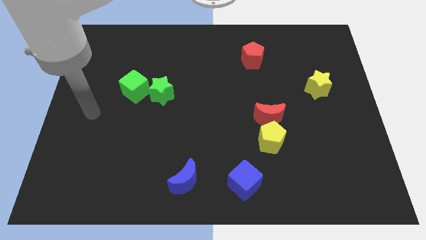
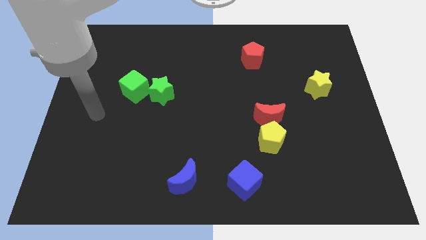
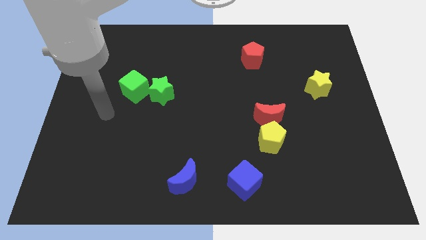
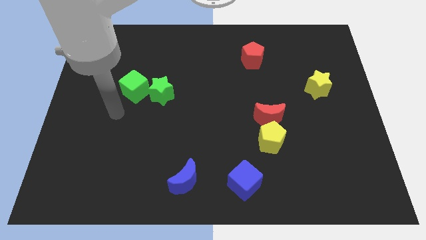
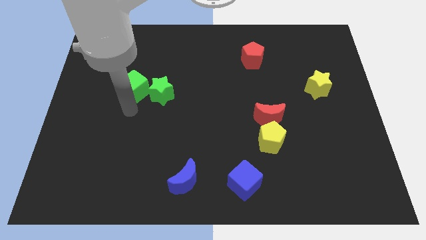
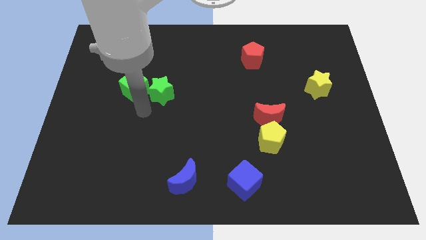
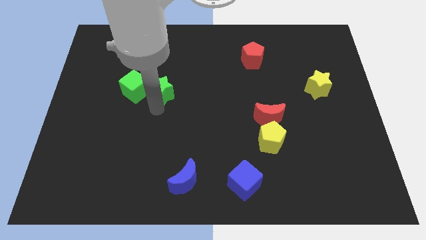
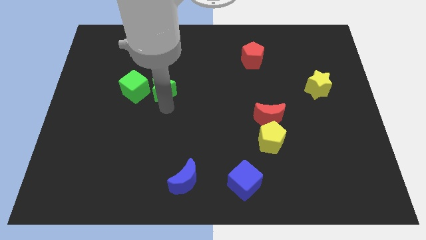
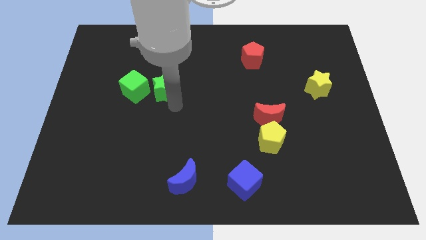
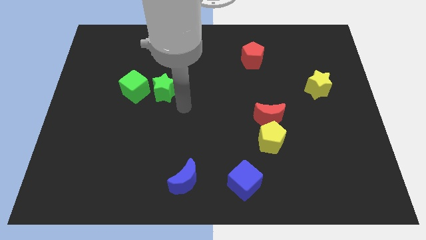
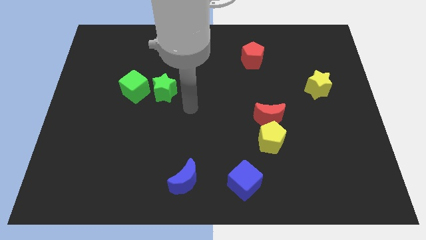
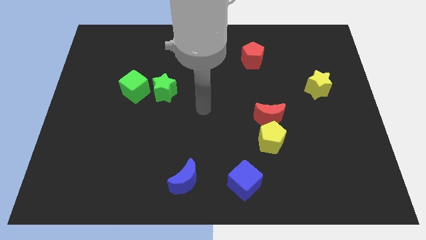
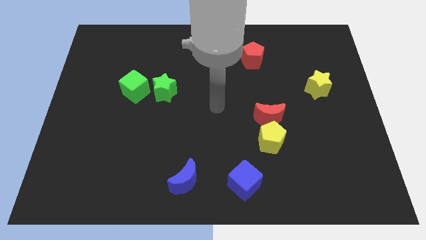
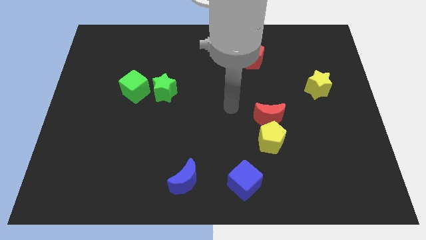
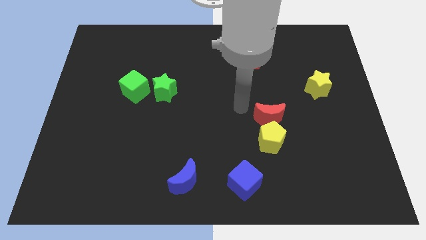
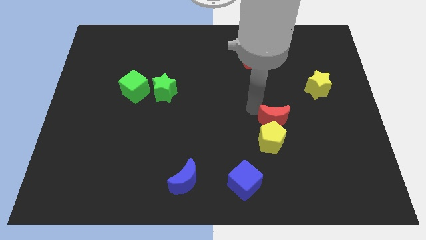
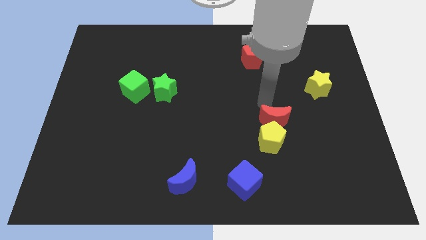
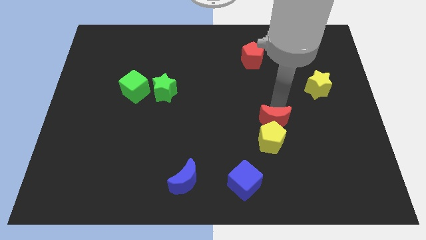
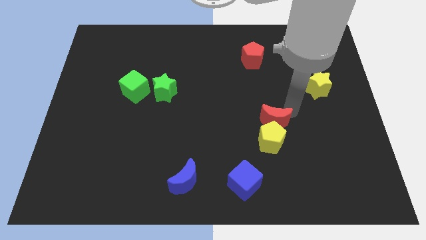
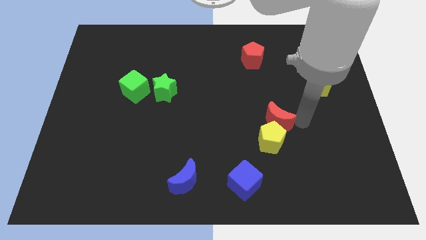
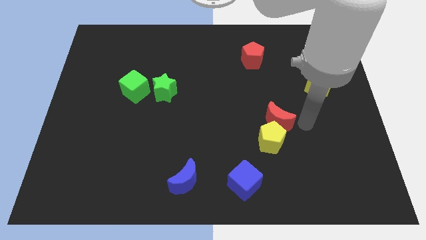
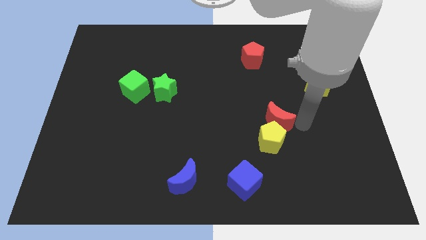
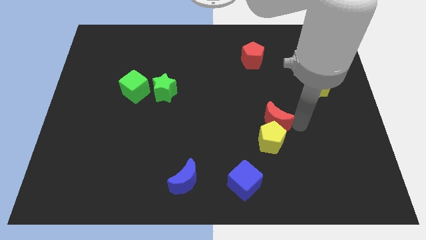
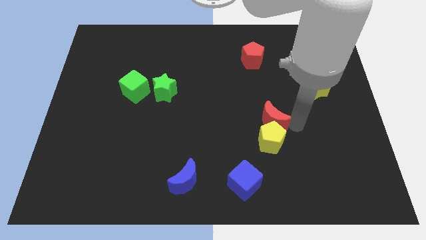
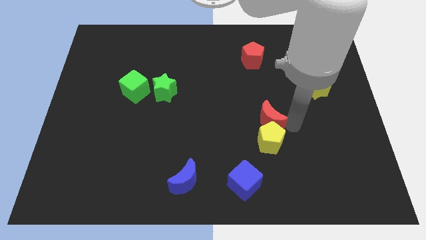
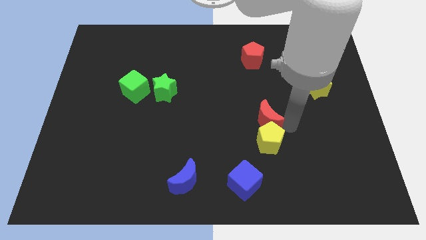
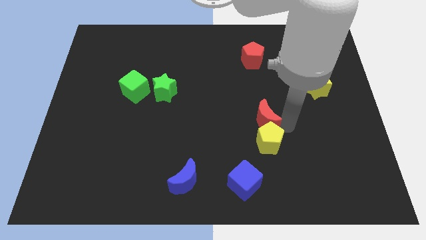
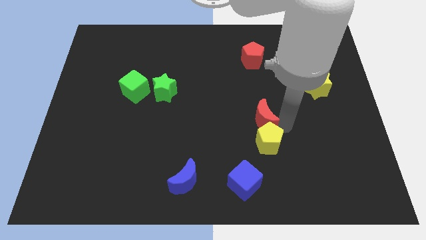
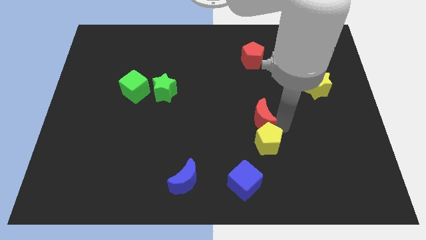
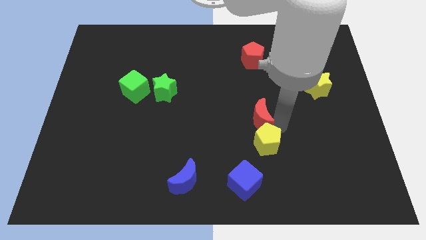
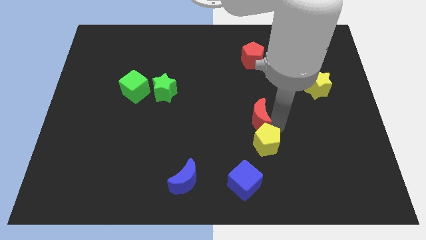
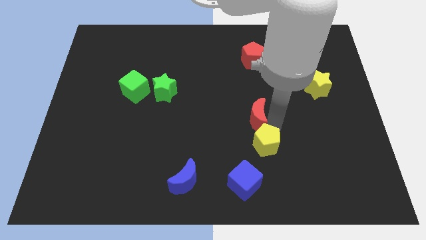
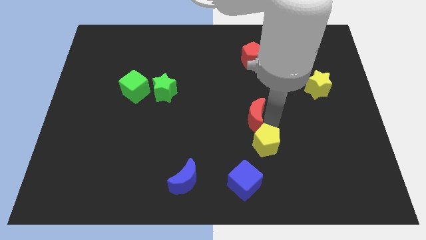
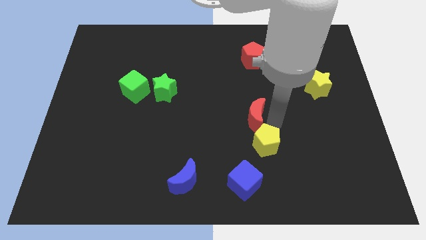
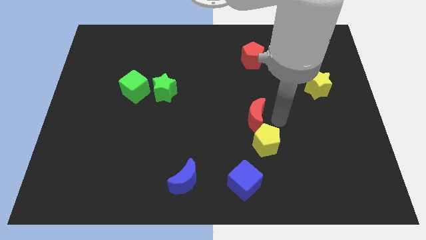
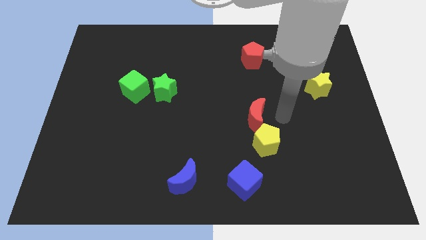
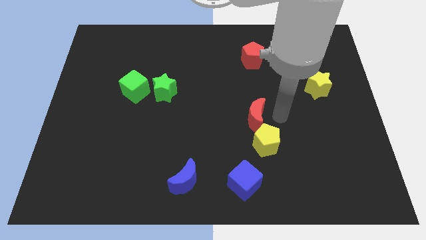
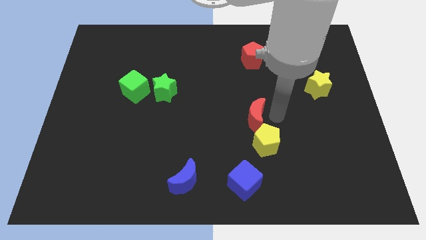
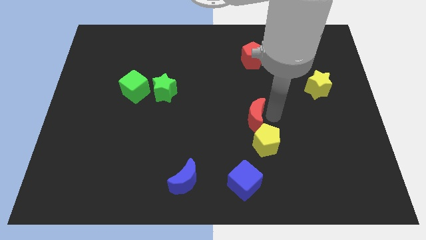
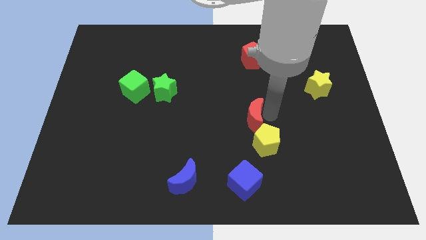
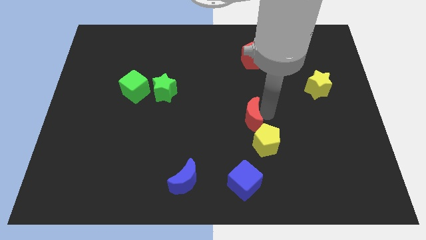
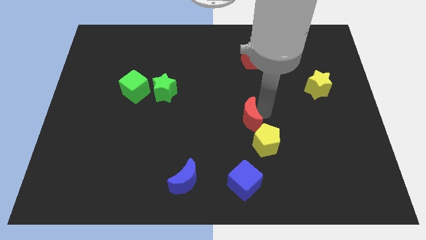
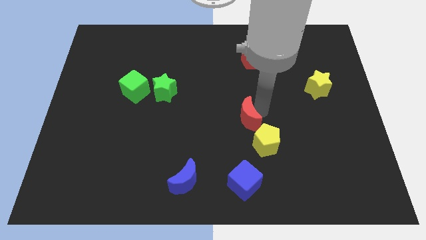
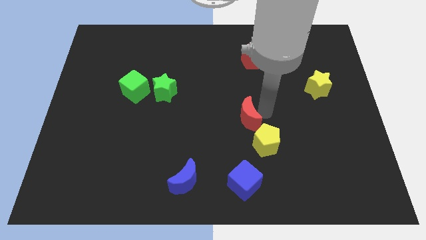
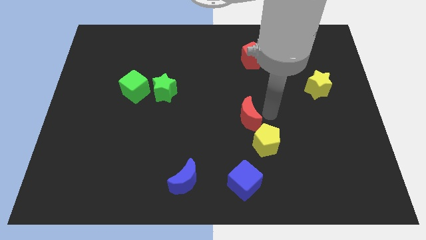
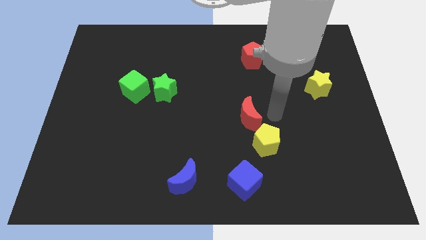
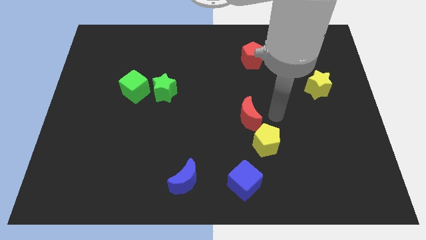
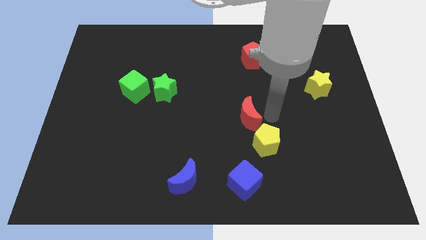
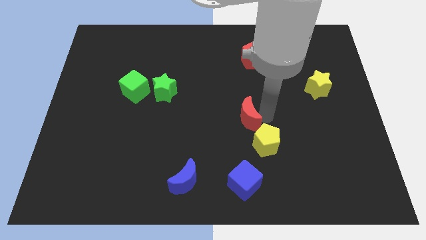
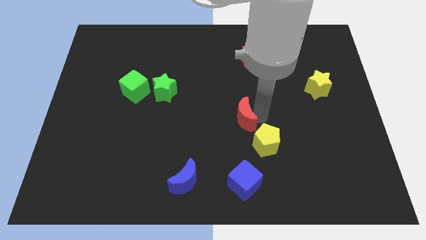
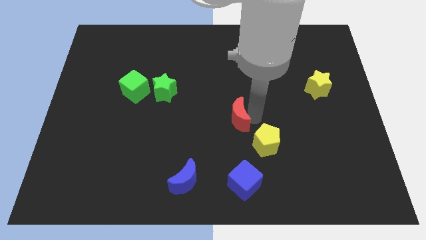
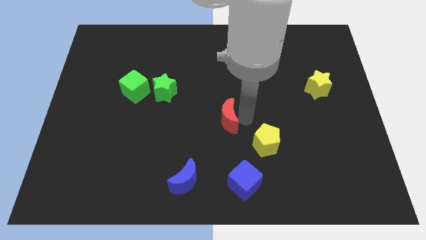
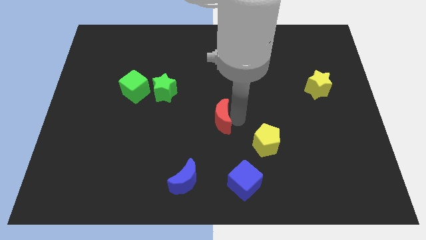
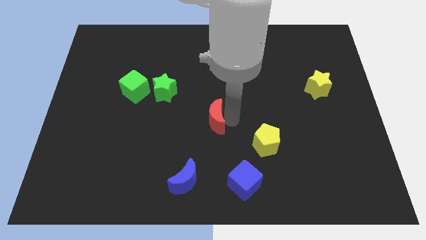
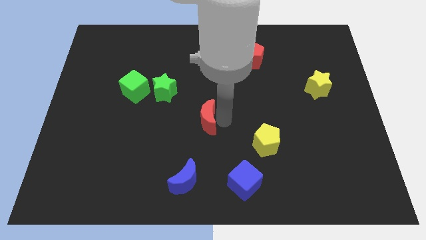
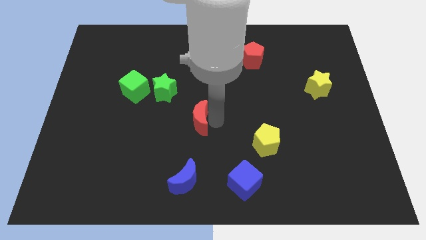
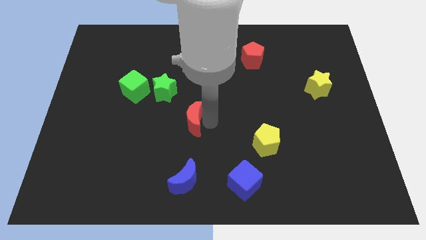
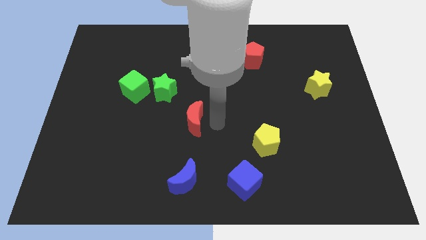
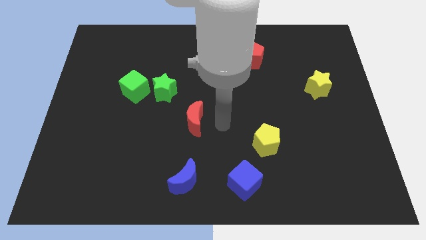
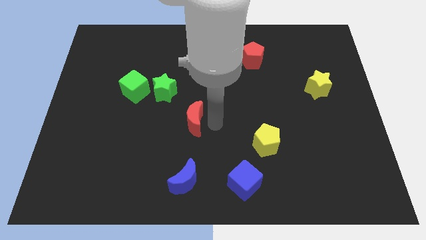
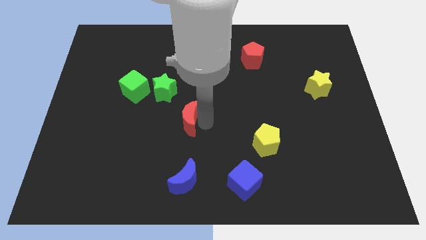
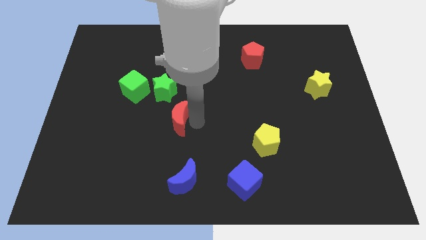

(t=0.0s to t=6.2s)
slide the red moon to the left

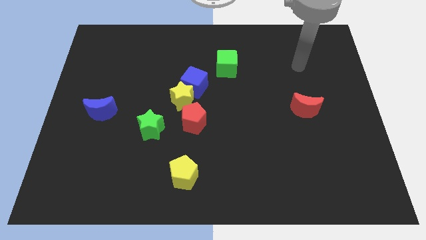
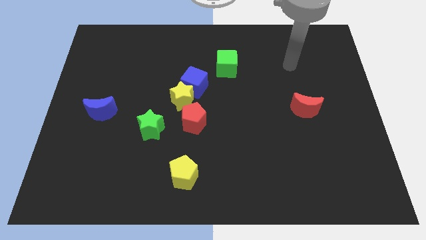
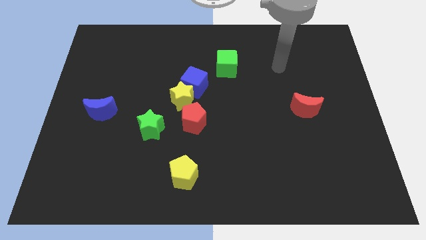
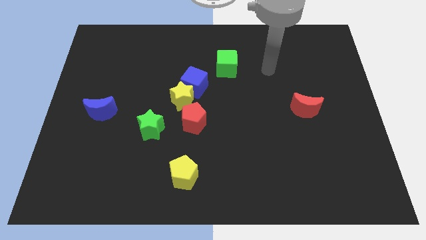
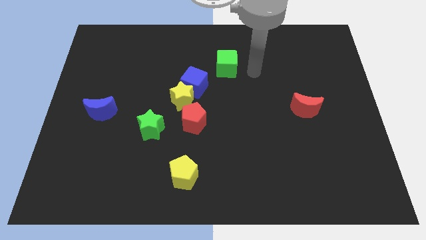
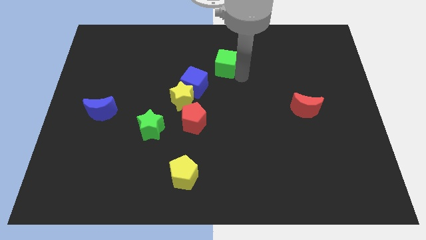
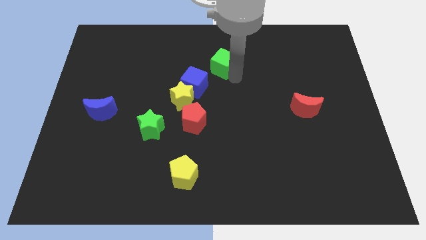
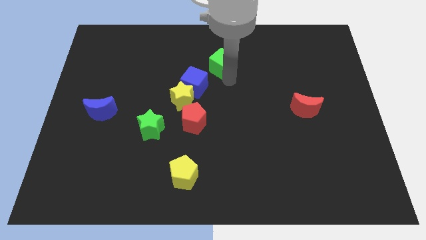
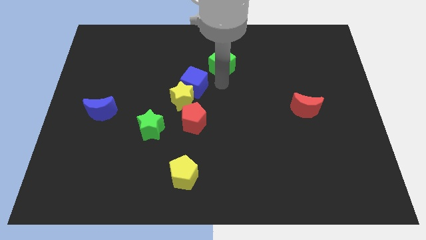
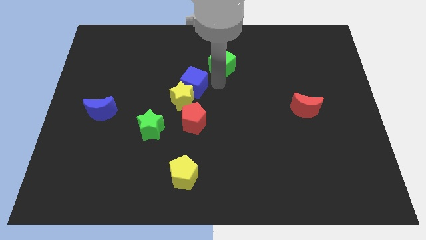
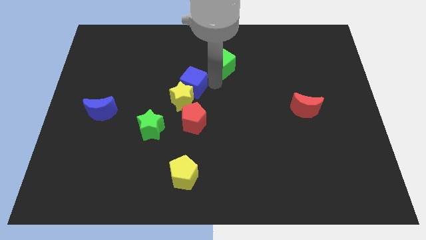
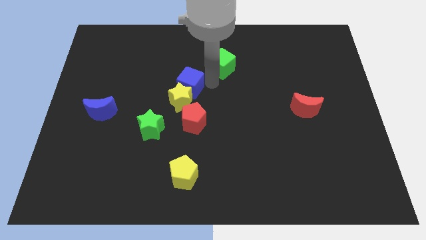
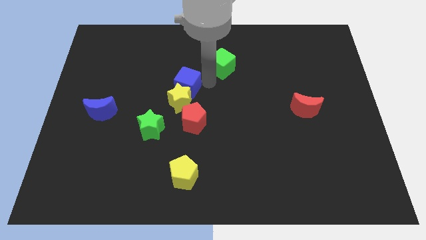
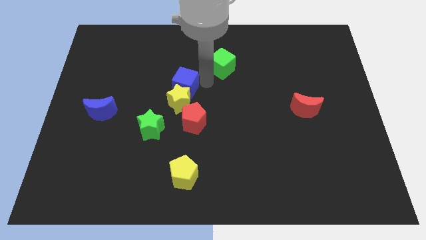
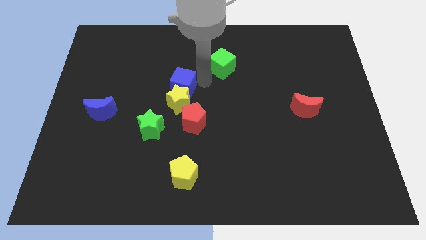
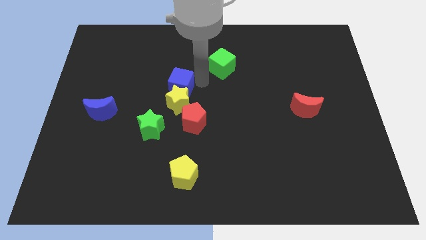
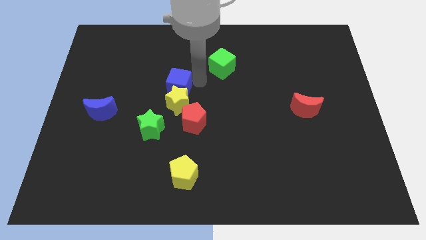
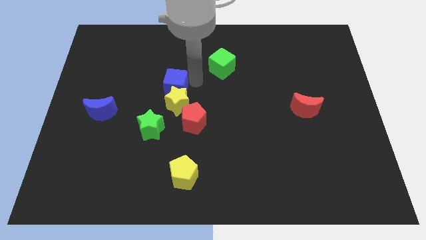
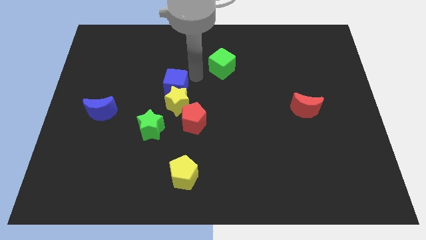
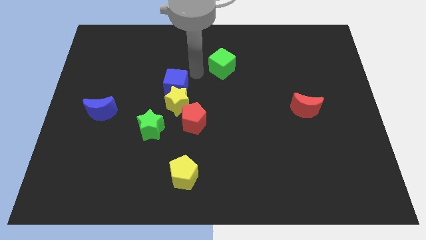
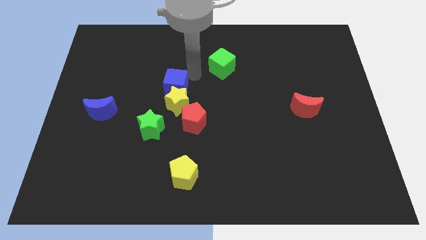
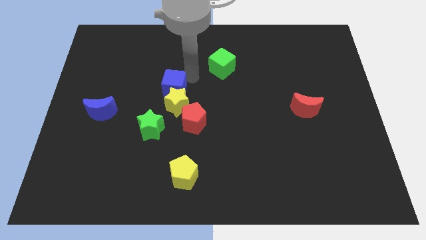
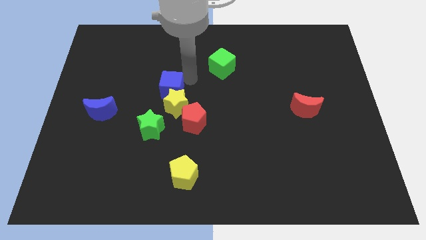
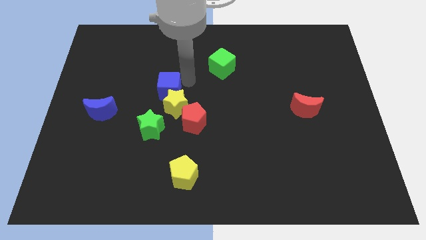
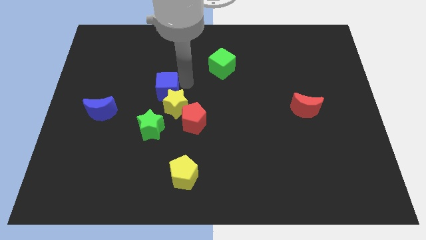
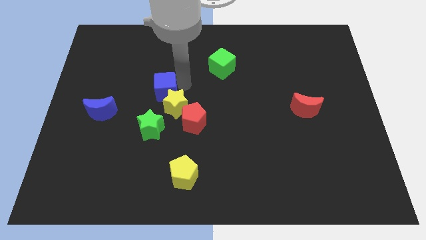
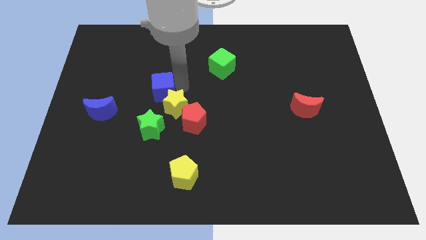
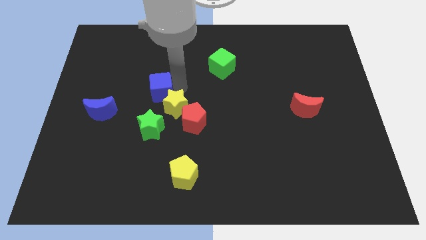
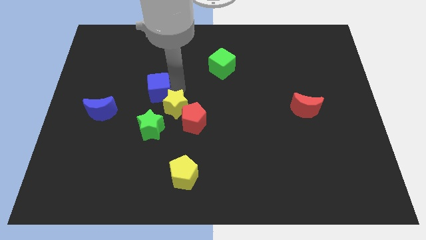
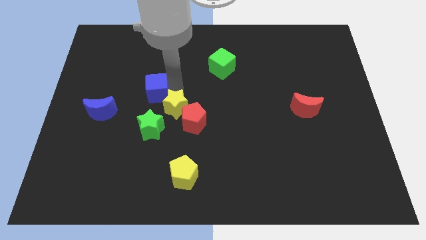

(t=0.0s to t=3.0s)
move the blue cube downwards and then to the left a bit
